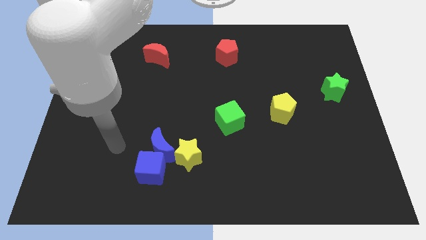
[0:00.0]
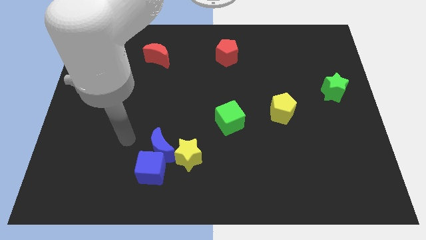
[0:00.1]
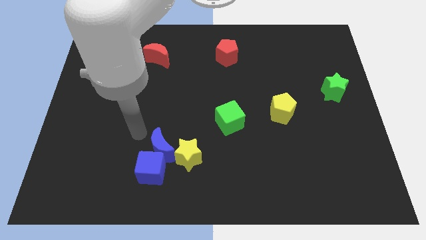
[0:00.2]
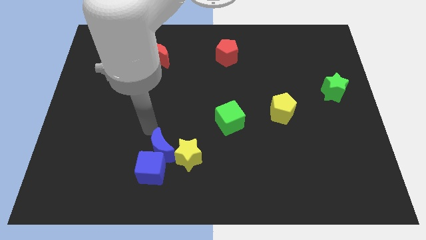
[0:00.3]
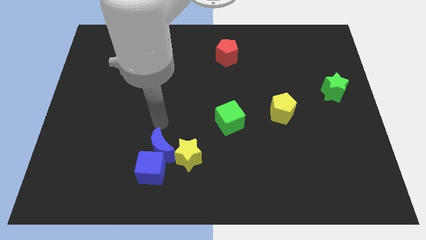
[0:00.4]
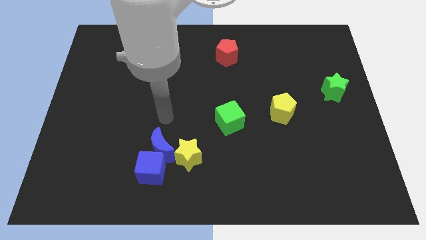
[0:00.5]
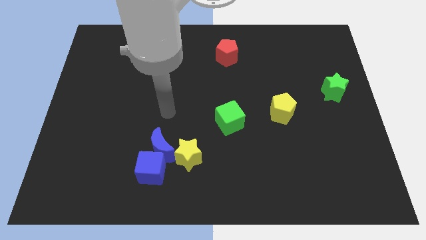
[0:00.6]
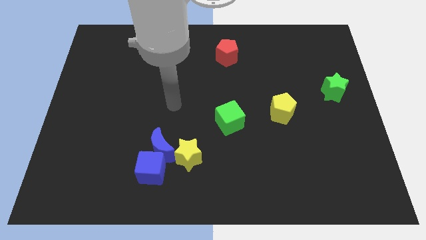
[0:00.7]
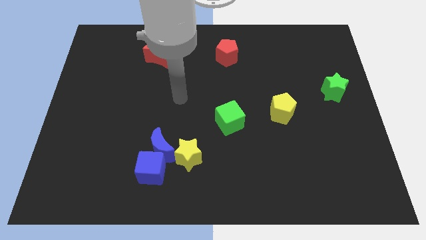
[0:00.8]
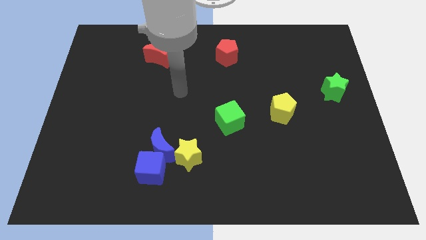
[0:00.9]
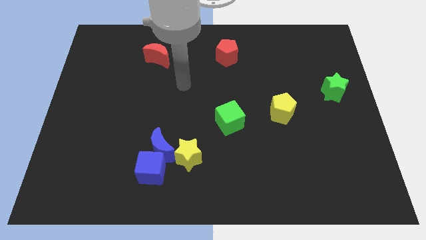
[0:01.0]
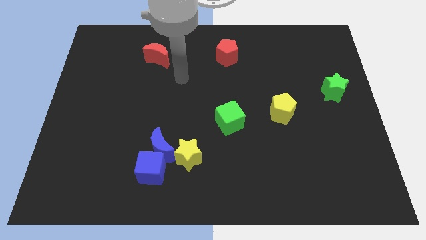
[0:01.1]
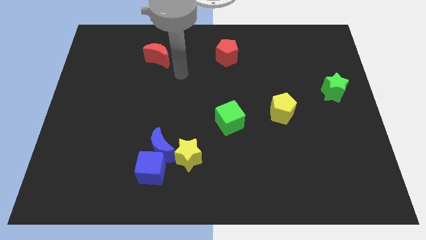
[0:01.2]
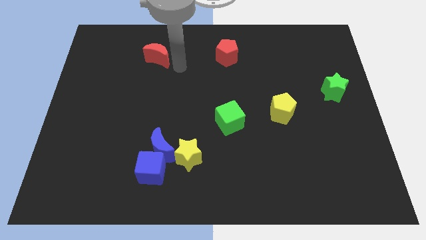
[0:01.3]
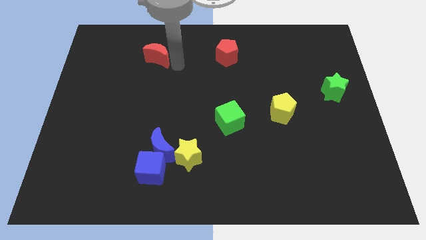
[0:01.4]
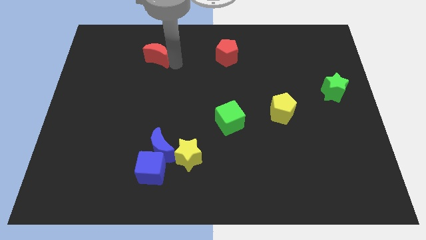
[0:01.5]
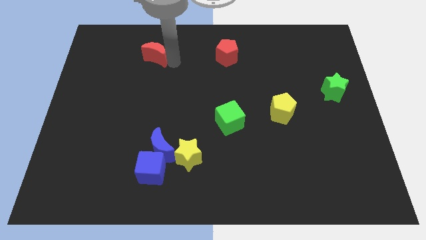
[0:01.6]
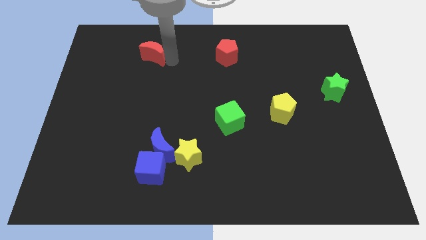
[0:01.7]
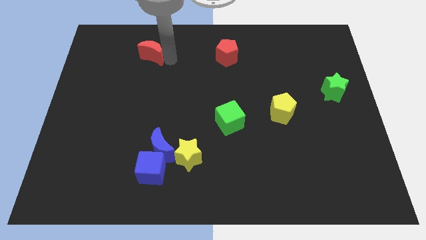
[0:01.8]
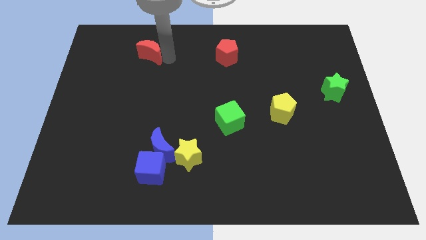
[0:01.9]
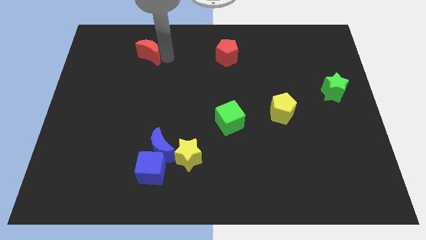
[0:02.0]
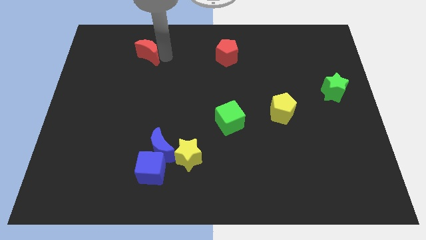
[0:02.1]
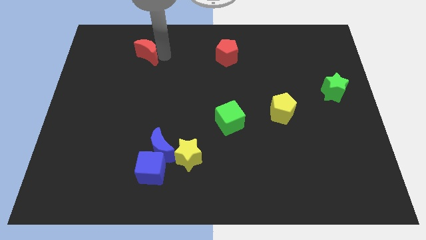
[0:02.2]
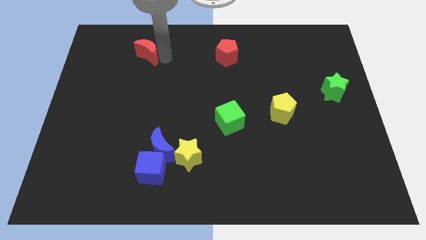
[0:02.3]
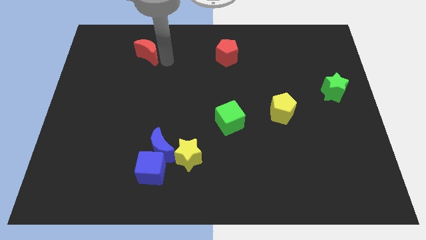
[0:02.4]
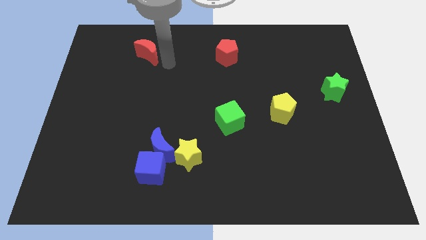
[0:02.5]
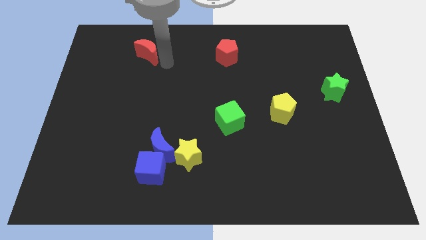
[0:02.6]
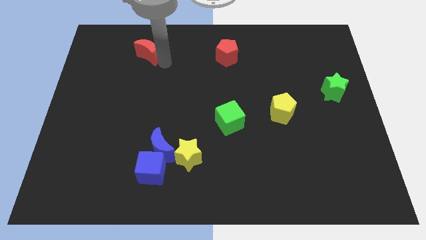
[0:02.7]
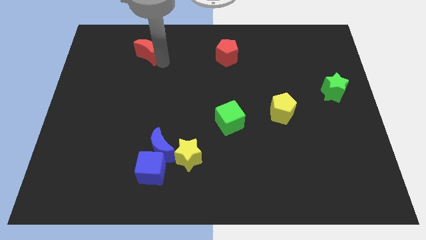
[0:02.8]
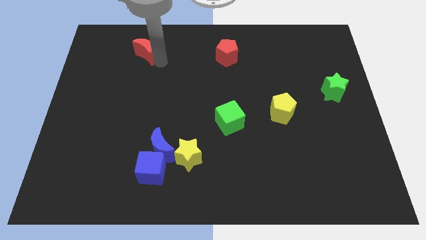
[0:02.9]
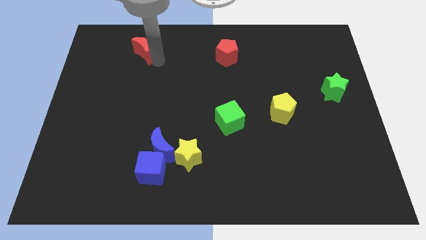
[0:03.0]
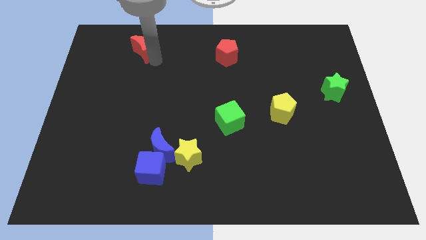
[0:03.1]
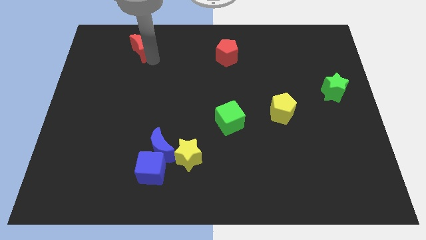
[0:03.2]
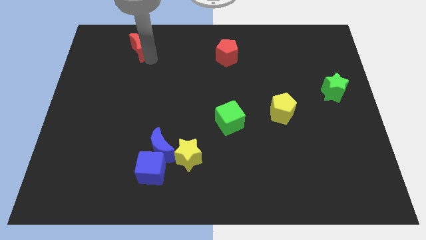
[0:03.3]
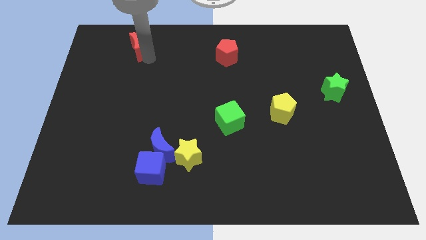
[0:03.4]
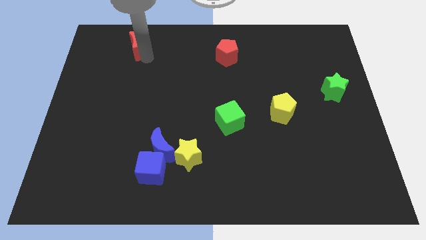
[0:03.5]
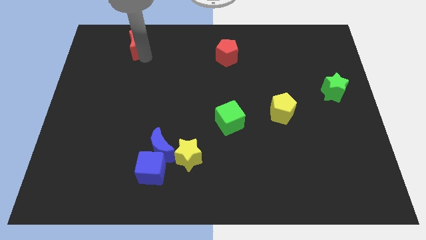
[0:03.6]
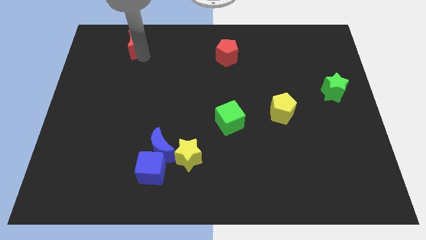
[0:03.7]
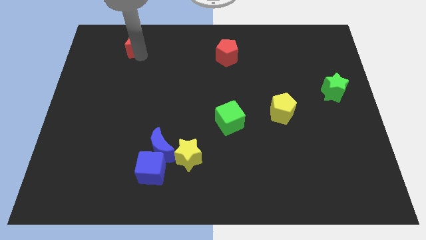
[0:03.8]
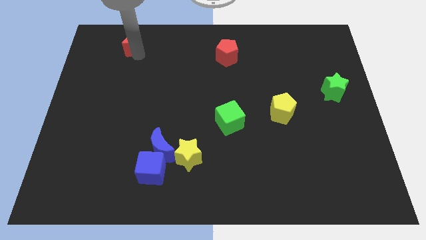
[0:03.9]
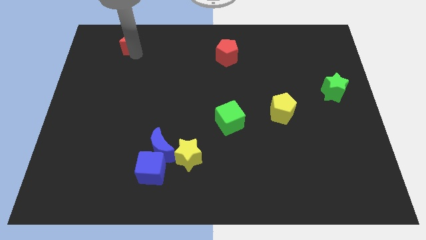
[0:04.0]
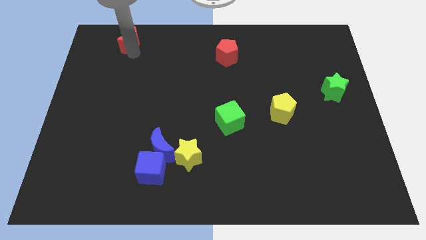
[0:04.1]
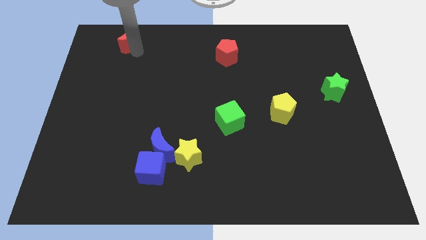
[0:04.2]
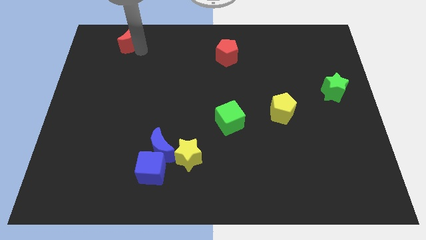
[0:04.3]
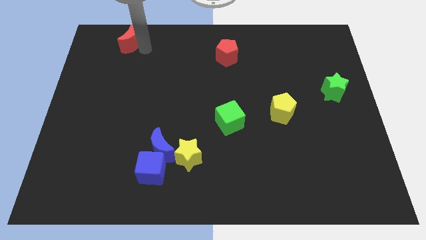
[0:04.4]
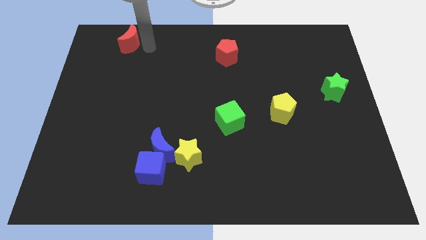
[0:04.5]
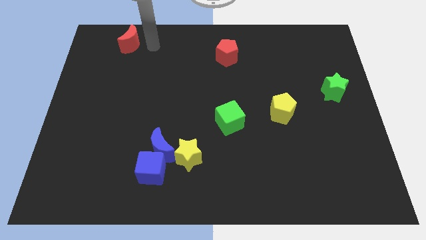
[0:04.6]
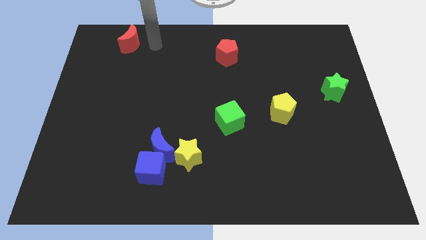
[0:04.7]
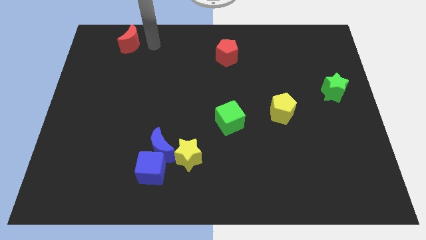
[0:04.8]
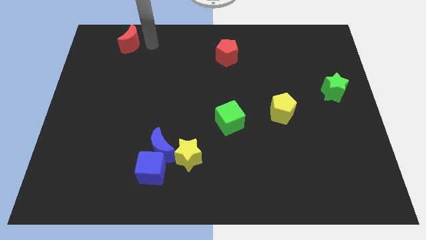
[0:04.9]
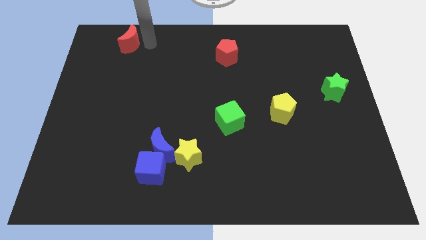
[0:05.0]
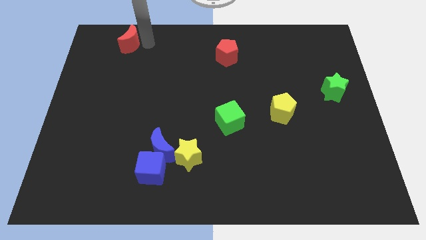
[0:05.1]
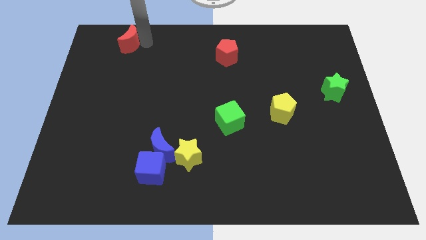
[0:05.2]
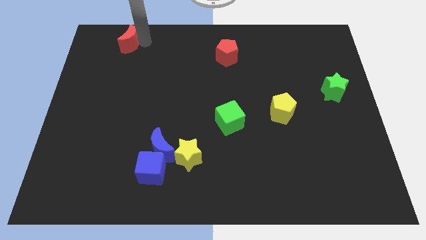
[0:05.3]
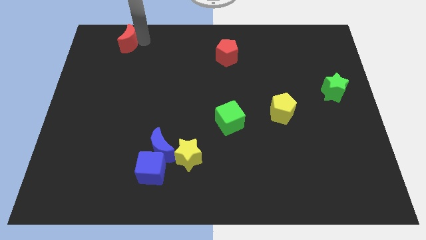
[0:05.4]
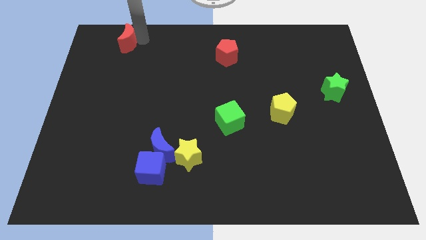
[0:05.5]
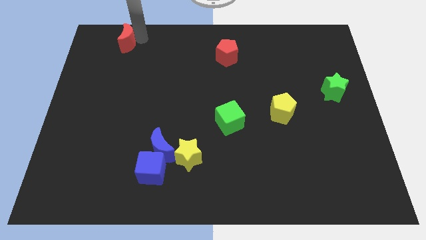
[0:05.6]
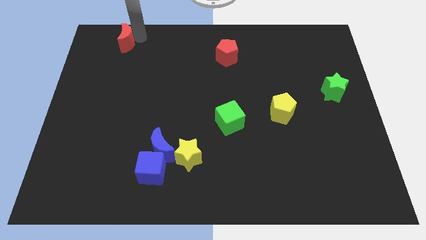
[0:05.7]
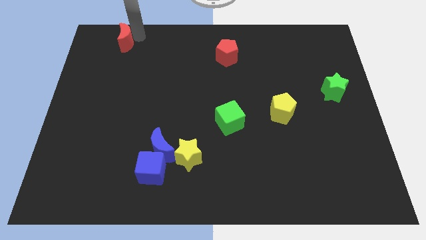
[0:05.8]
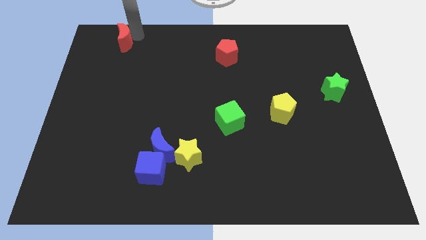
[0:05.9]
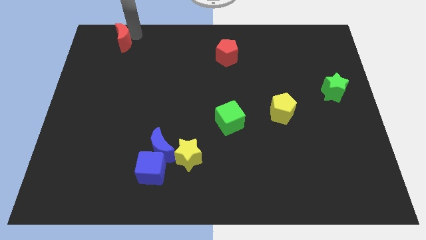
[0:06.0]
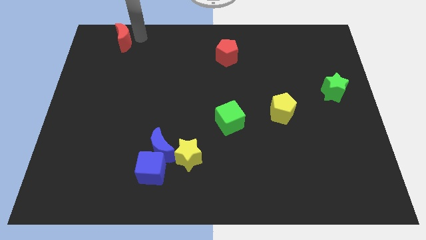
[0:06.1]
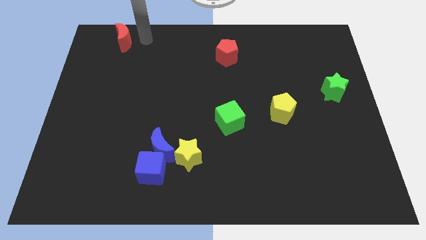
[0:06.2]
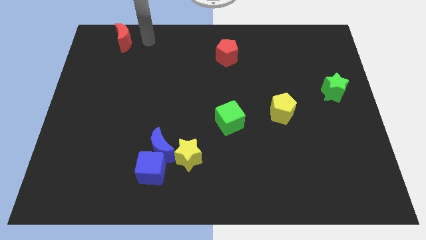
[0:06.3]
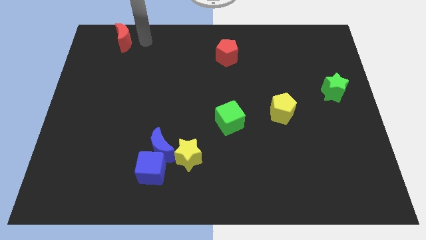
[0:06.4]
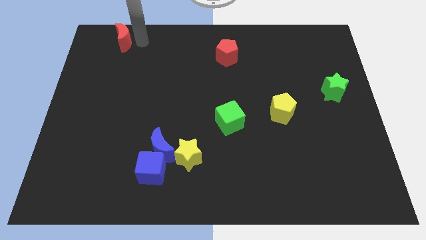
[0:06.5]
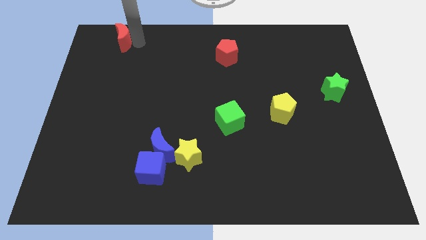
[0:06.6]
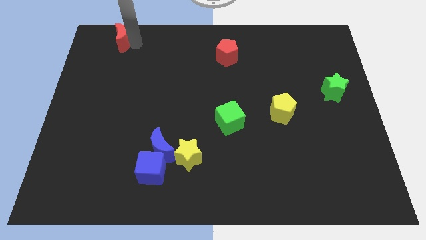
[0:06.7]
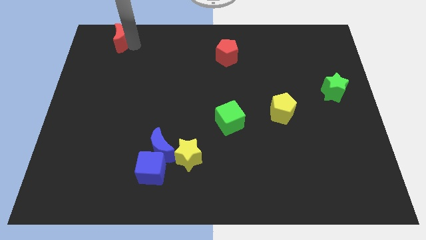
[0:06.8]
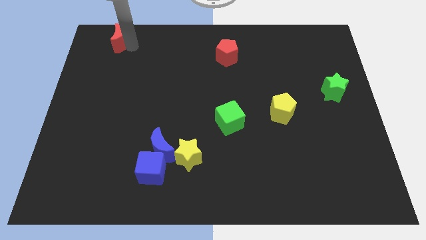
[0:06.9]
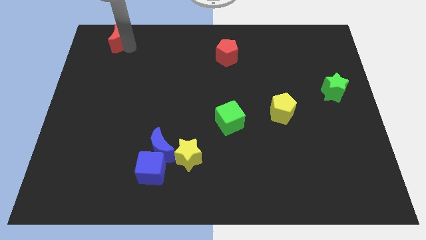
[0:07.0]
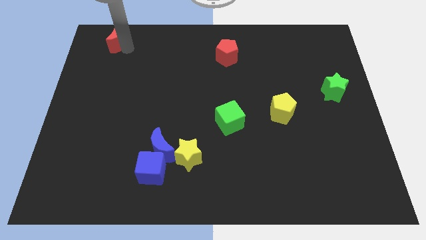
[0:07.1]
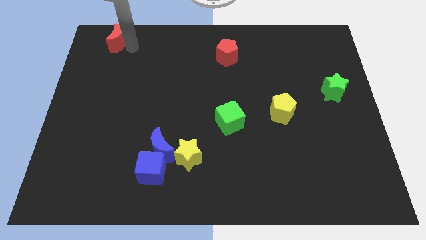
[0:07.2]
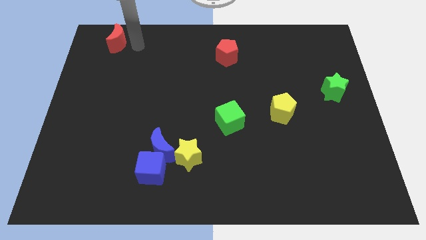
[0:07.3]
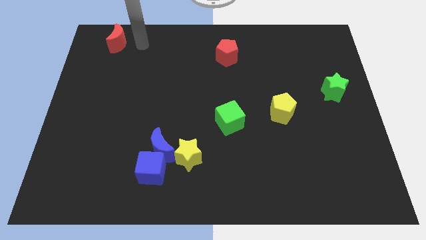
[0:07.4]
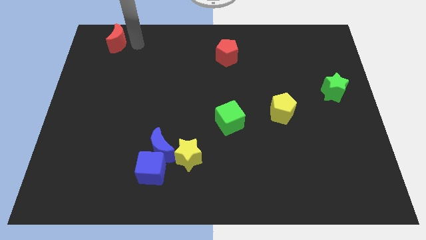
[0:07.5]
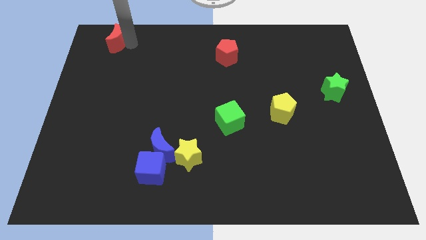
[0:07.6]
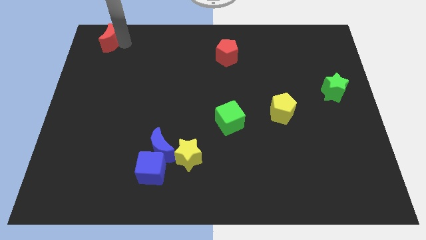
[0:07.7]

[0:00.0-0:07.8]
push the red moon to the upper left corner
